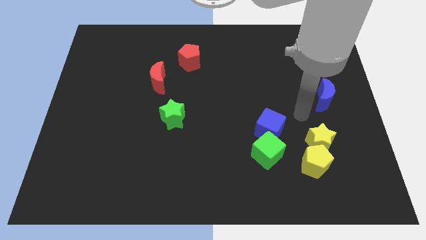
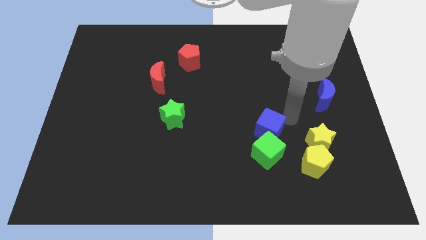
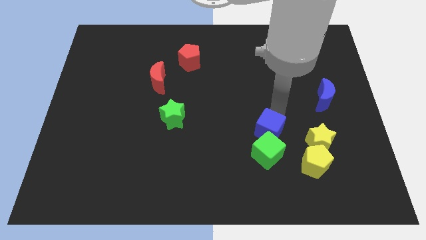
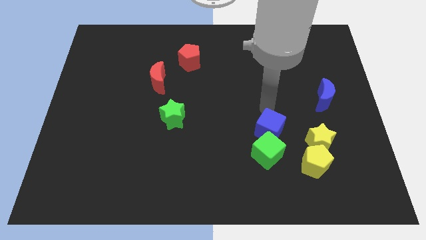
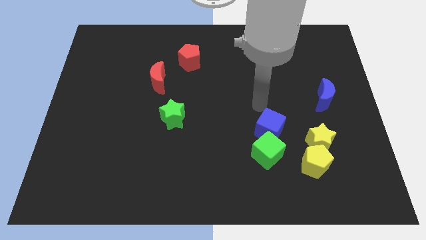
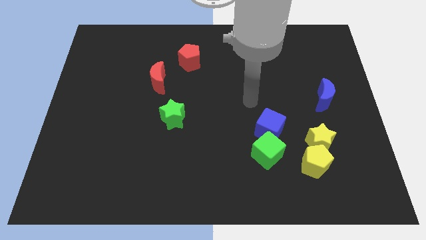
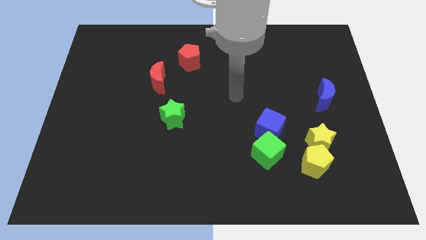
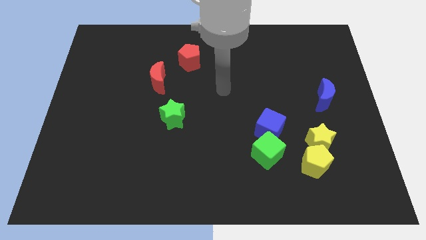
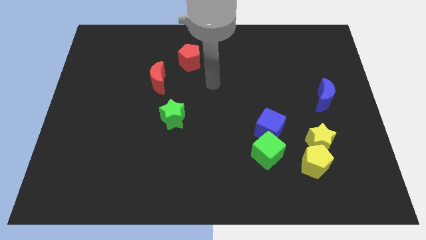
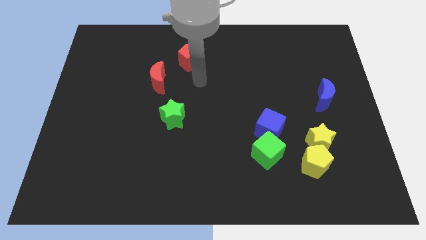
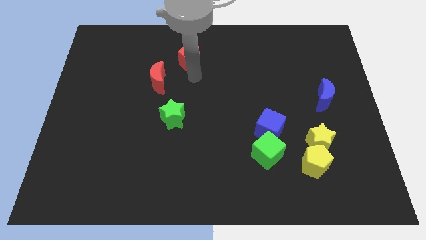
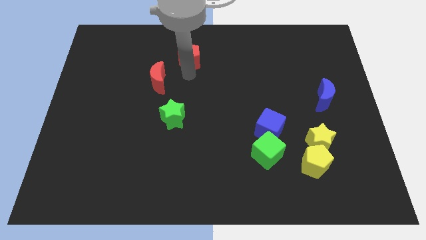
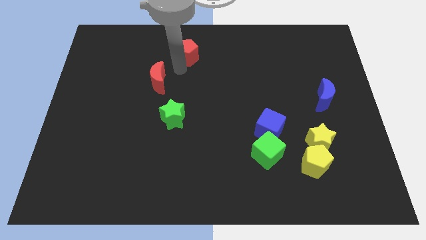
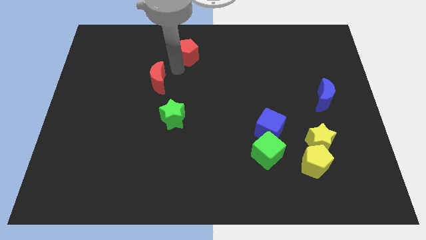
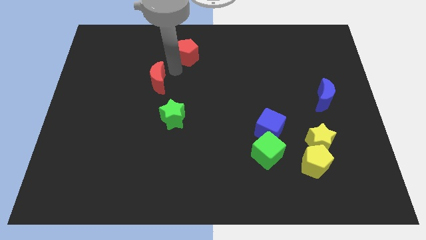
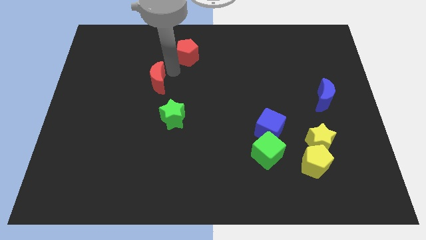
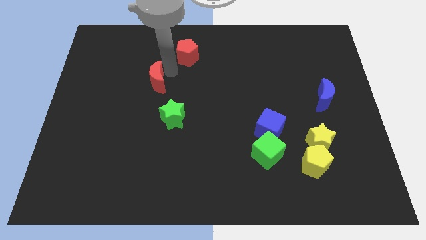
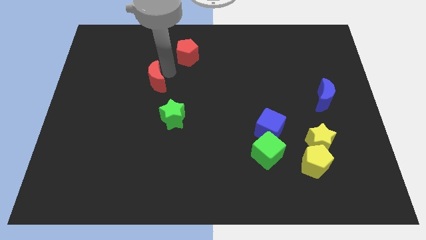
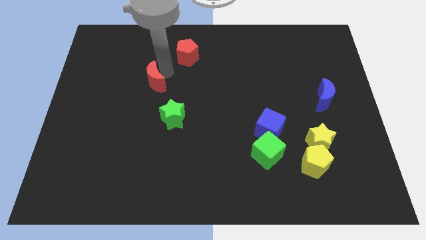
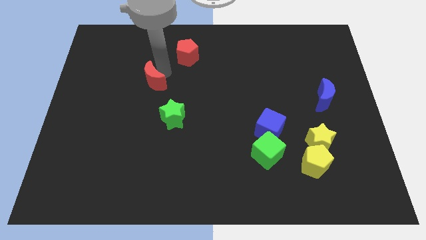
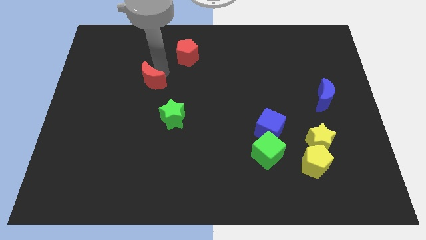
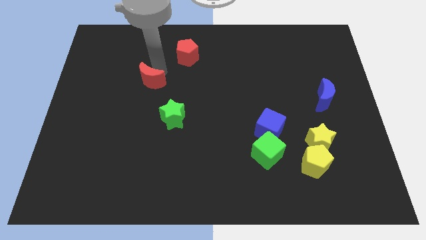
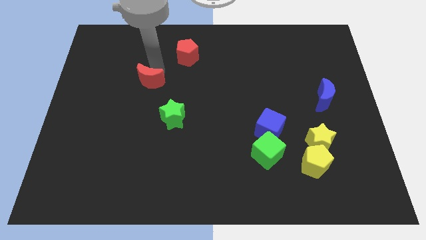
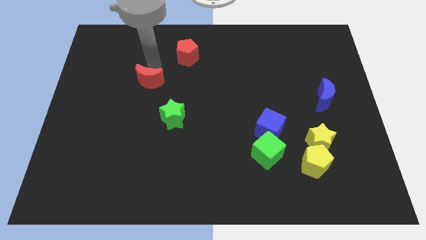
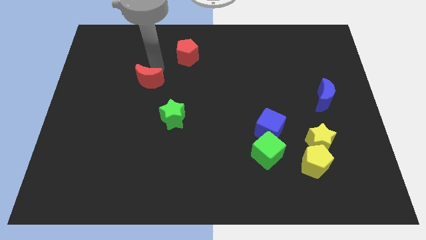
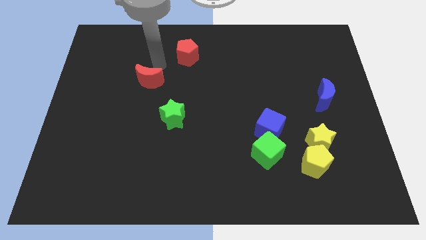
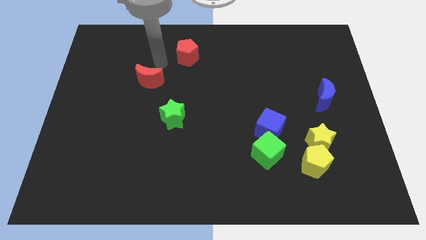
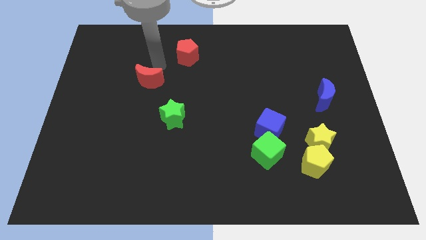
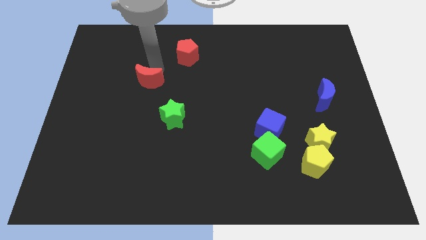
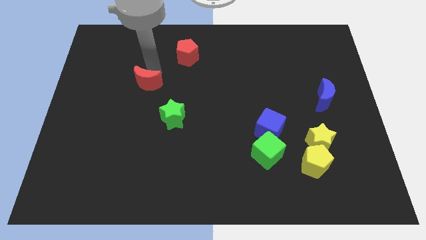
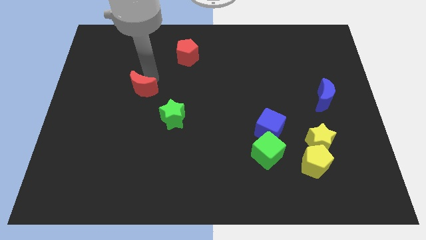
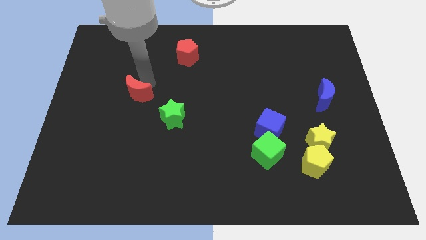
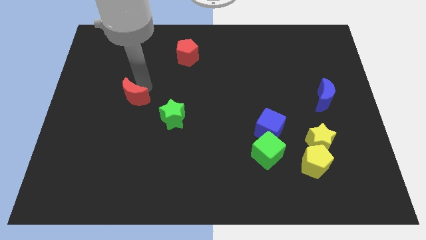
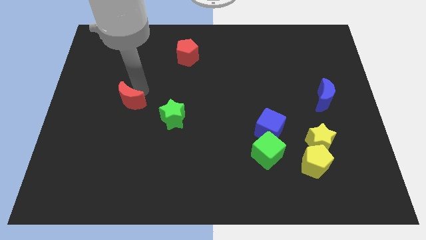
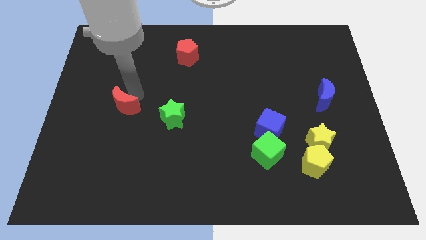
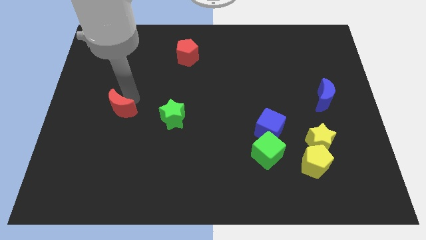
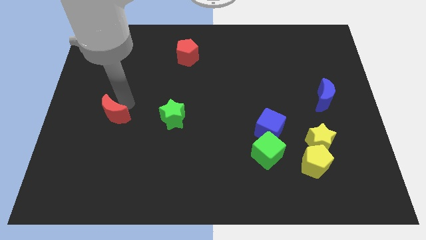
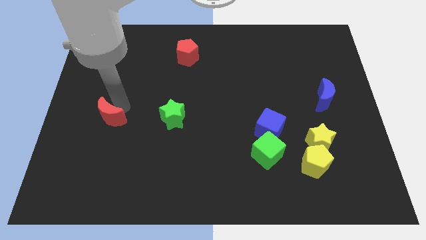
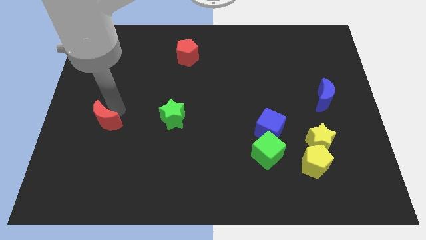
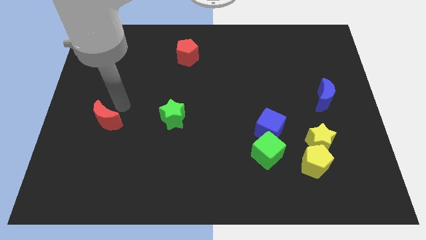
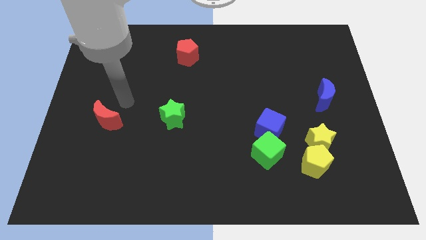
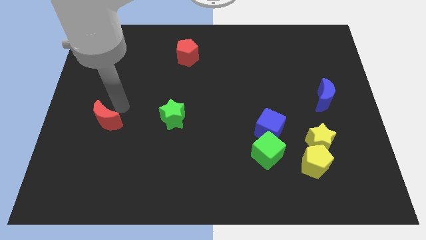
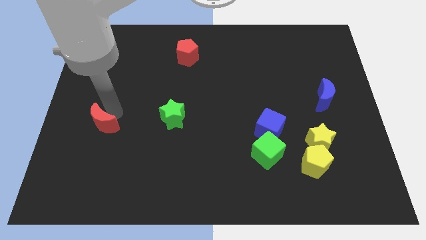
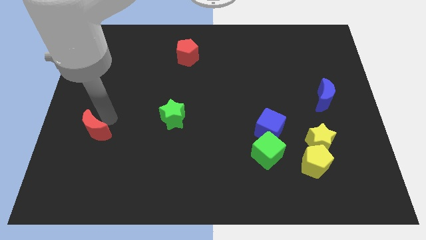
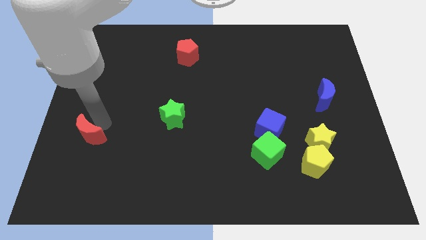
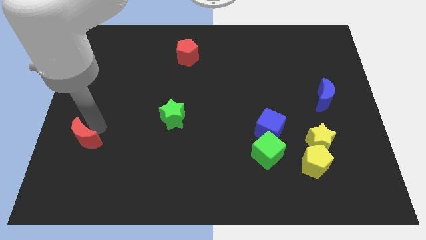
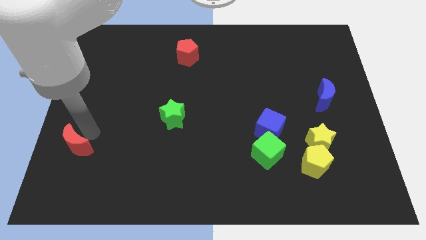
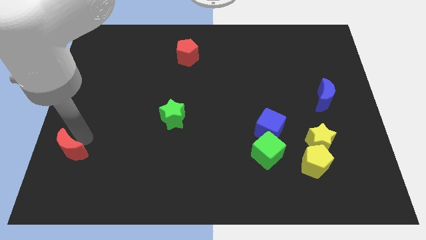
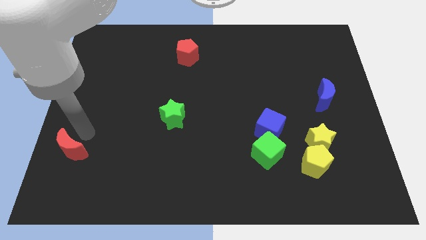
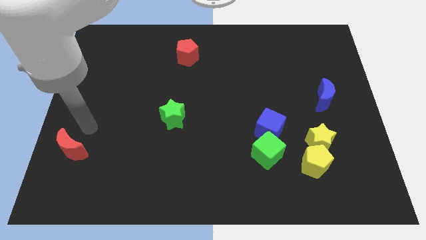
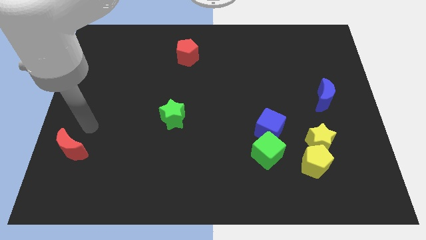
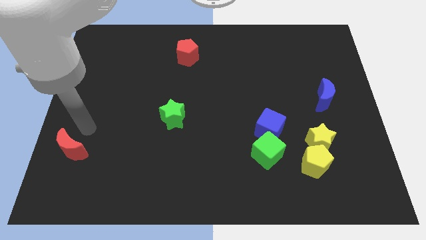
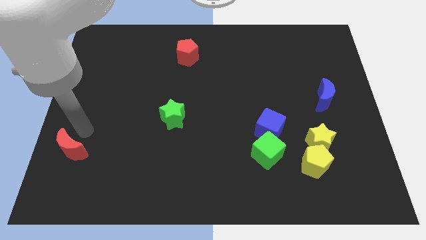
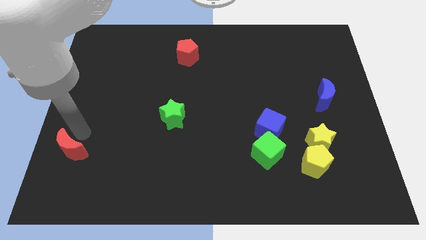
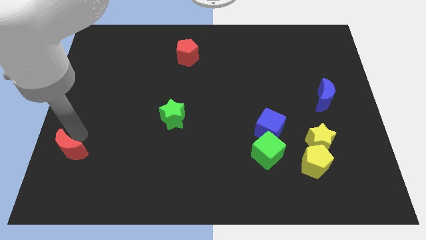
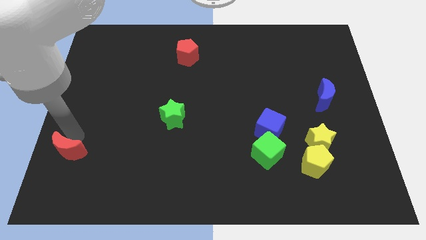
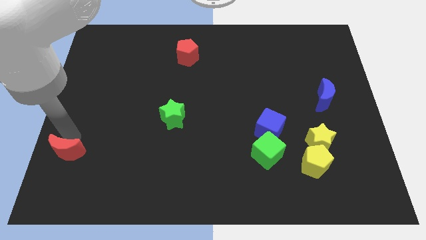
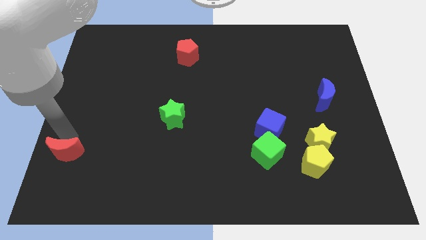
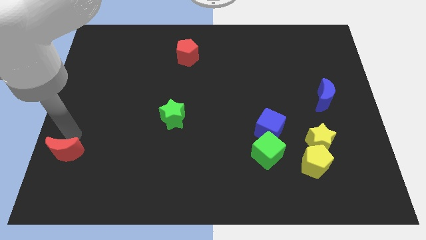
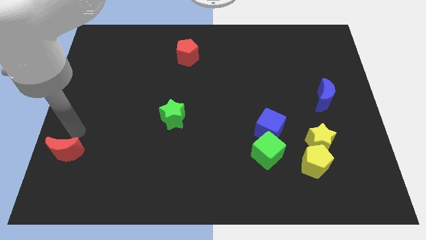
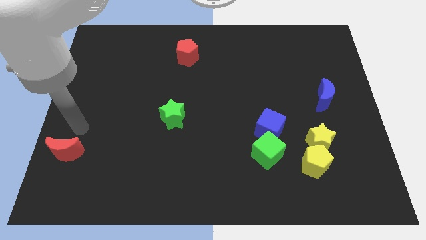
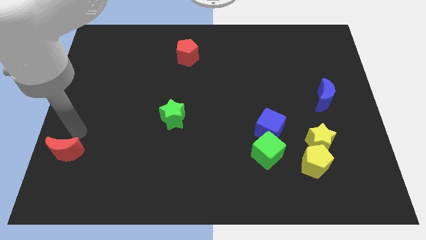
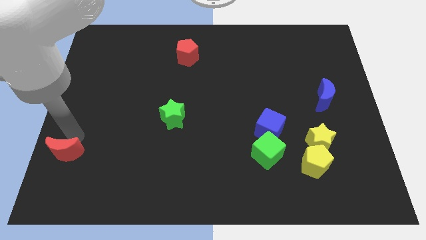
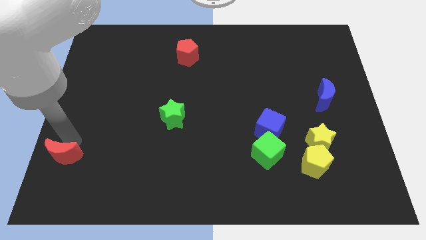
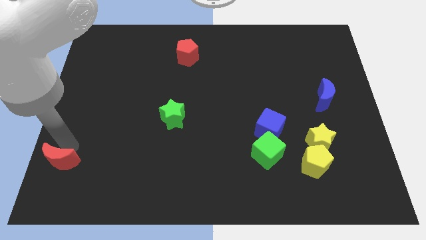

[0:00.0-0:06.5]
put the red moon to the bottom left of the board
